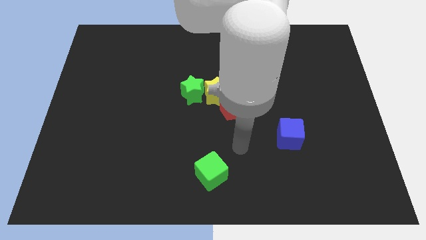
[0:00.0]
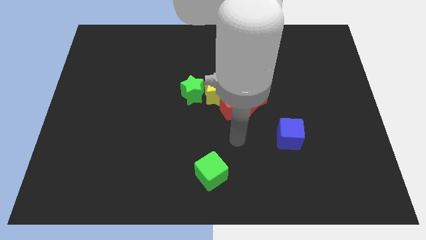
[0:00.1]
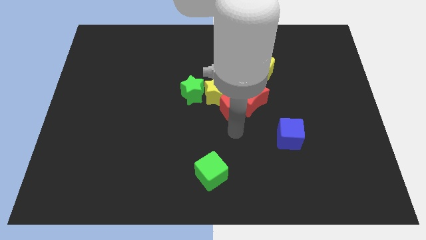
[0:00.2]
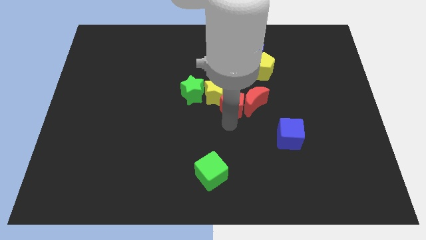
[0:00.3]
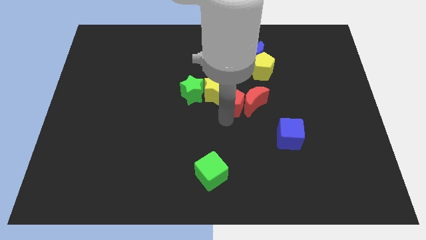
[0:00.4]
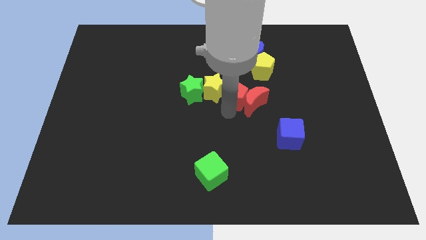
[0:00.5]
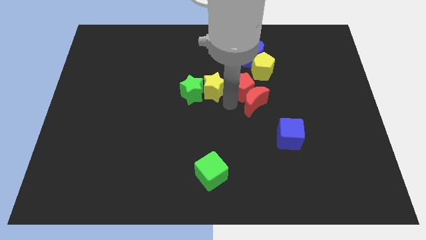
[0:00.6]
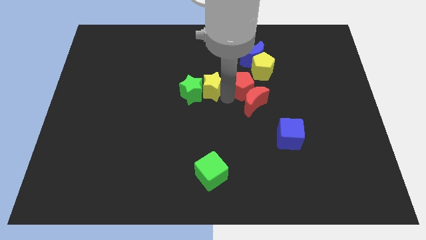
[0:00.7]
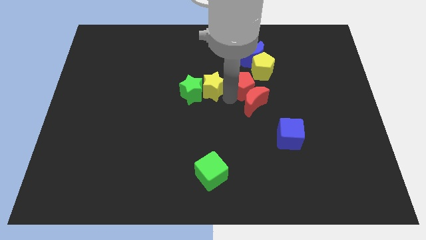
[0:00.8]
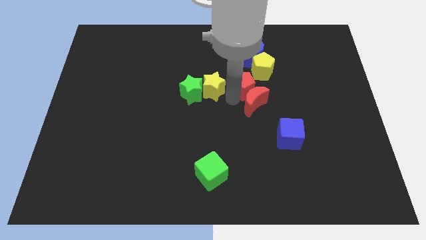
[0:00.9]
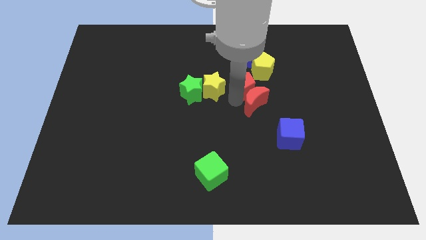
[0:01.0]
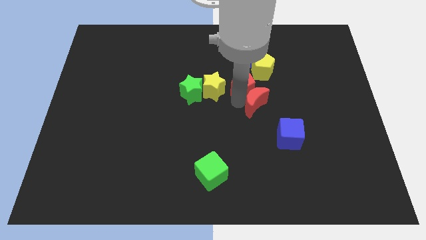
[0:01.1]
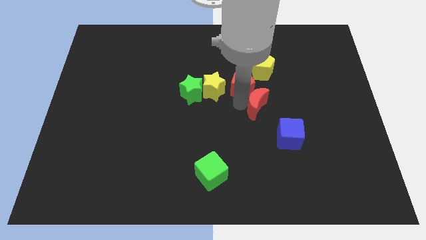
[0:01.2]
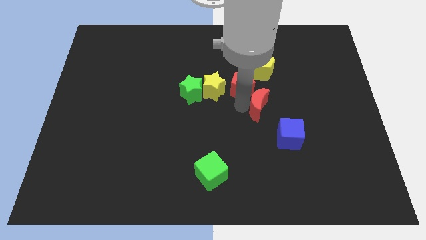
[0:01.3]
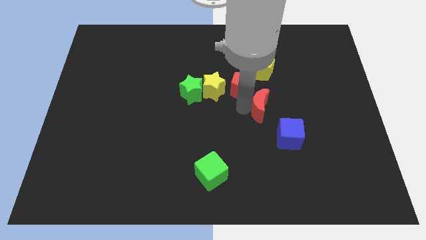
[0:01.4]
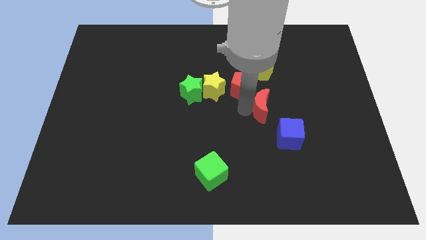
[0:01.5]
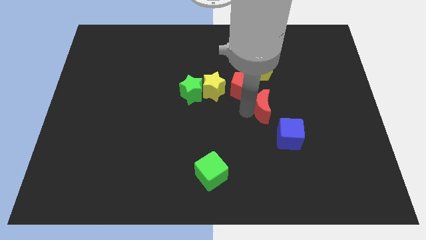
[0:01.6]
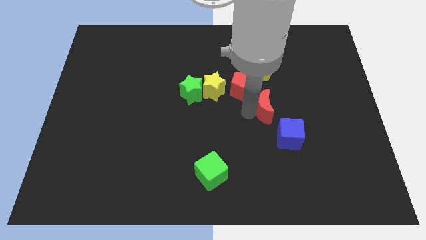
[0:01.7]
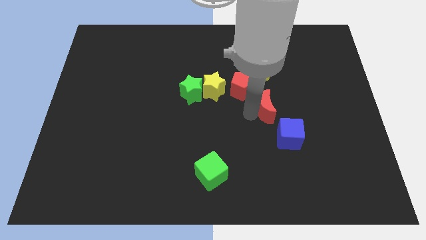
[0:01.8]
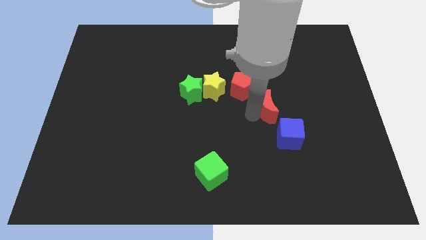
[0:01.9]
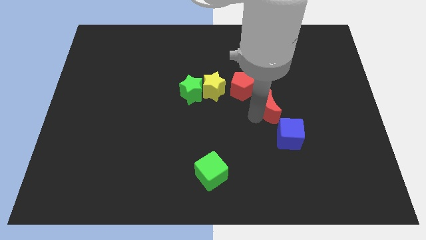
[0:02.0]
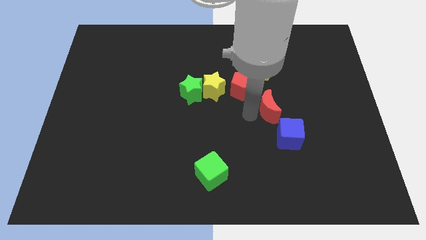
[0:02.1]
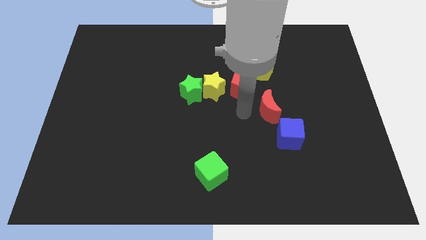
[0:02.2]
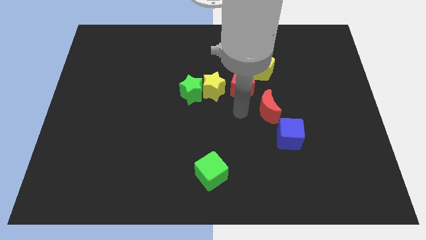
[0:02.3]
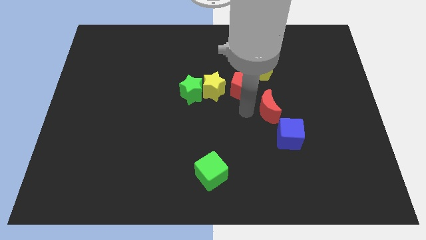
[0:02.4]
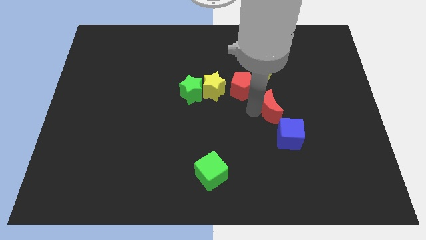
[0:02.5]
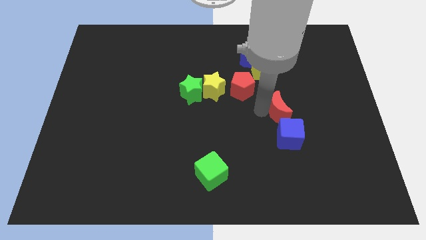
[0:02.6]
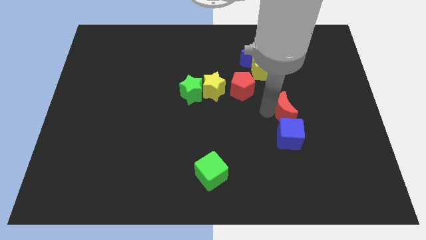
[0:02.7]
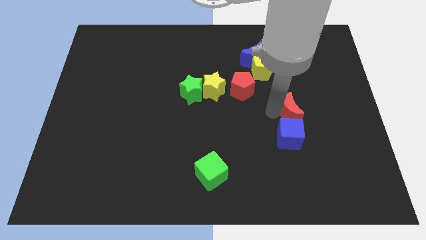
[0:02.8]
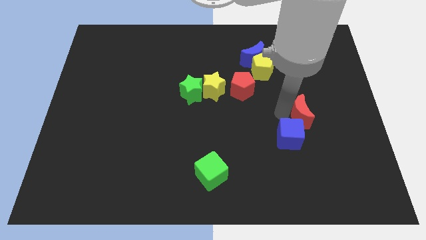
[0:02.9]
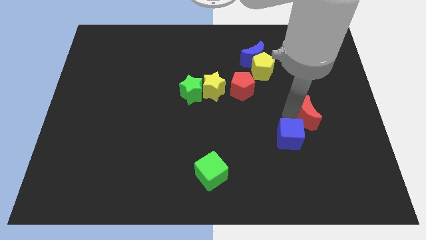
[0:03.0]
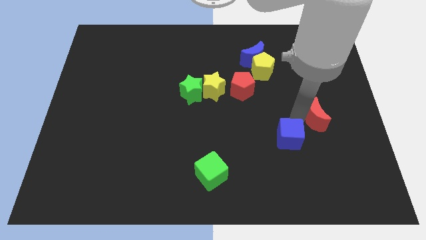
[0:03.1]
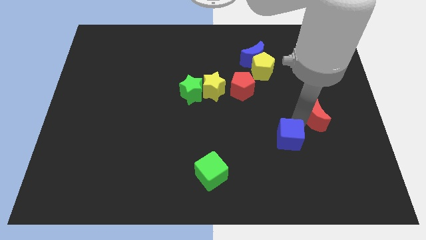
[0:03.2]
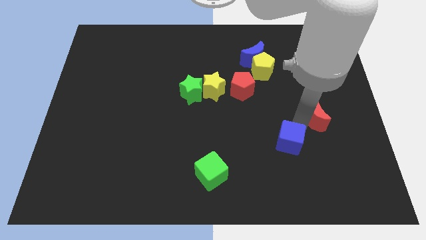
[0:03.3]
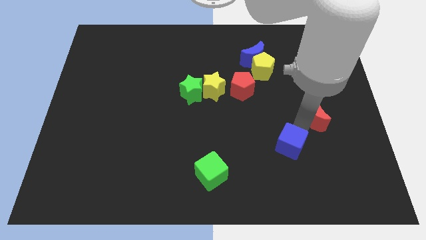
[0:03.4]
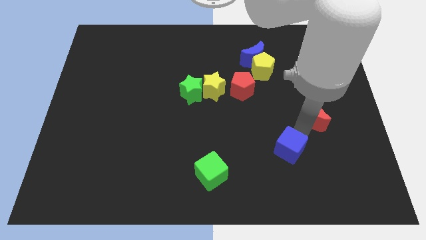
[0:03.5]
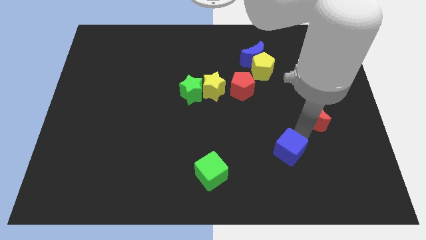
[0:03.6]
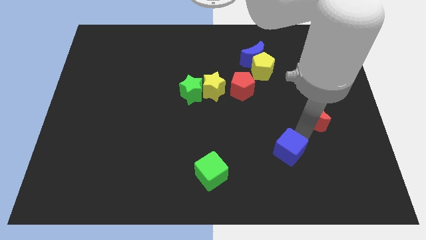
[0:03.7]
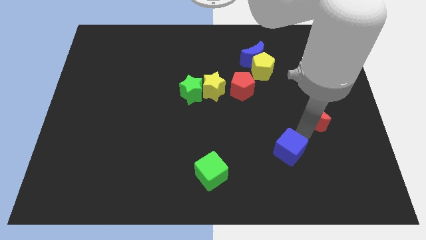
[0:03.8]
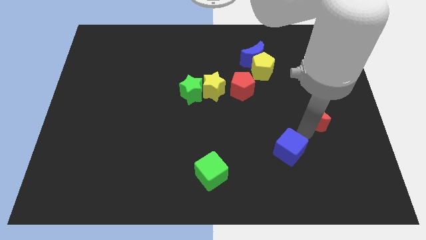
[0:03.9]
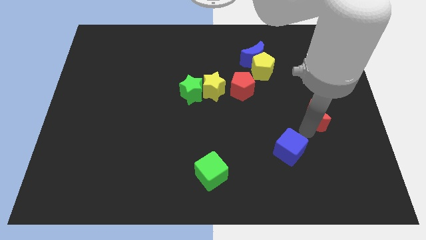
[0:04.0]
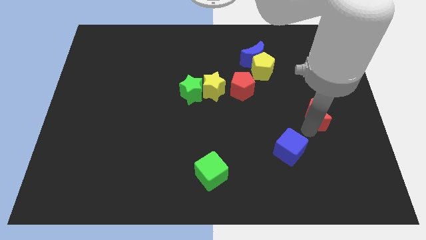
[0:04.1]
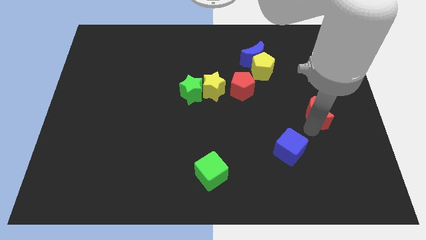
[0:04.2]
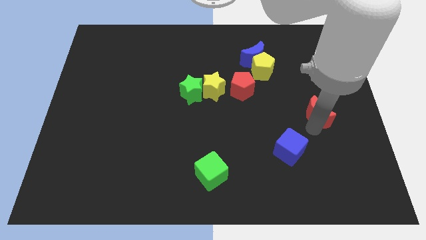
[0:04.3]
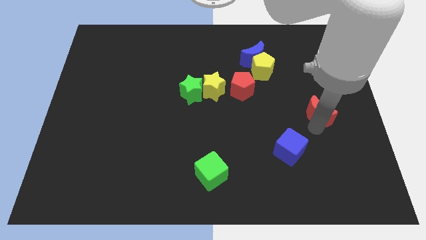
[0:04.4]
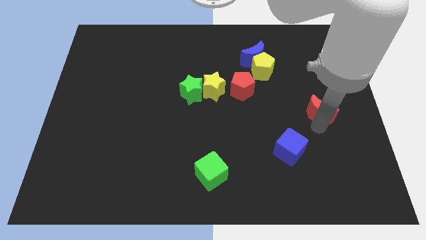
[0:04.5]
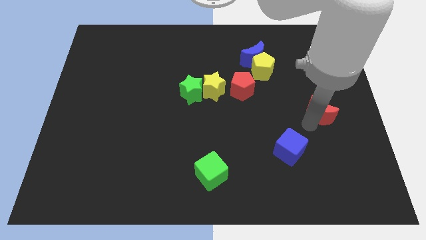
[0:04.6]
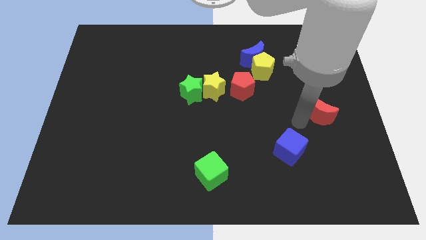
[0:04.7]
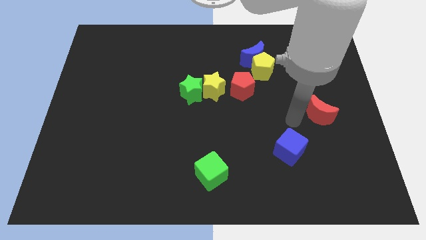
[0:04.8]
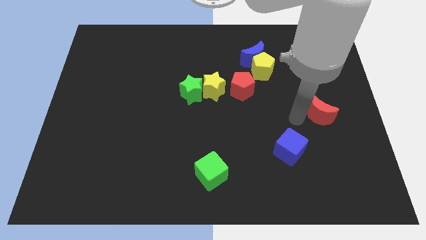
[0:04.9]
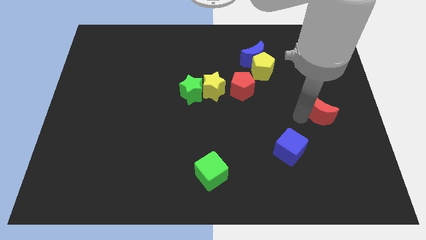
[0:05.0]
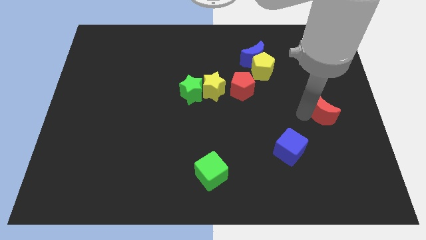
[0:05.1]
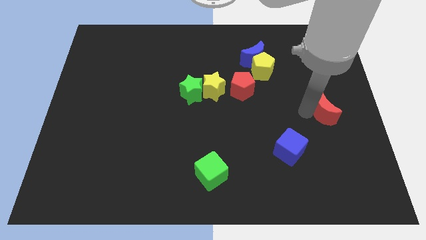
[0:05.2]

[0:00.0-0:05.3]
put the red moon to the right side

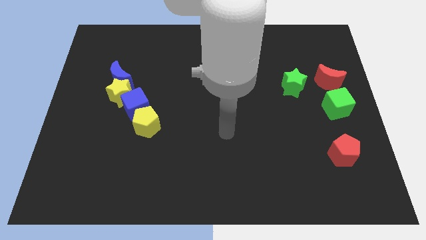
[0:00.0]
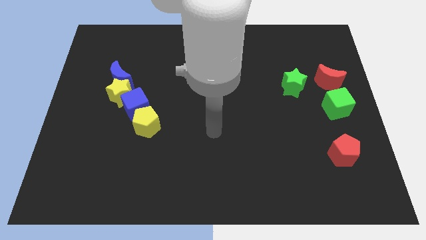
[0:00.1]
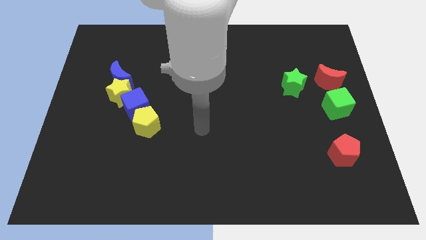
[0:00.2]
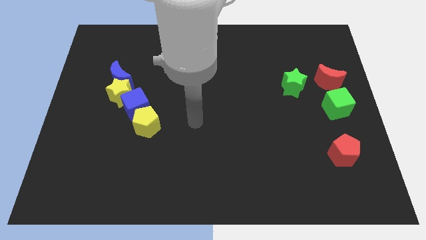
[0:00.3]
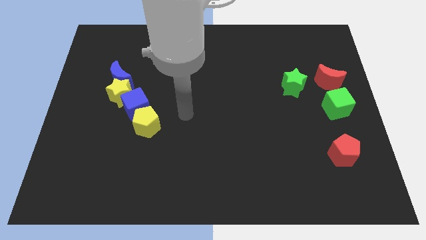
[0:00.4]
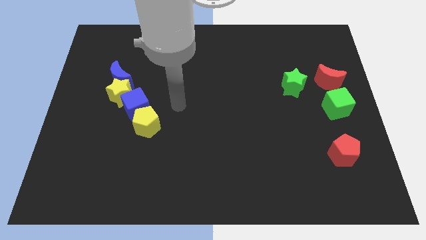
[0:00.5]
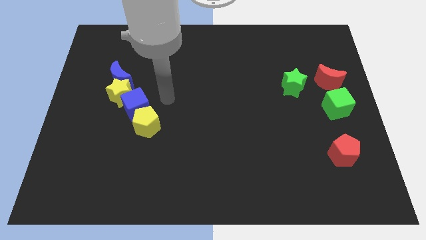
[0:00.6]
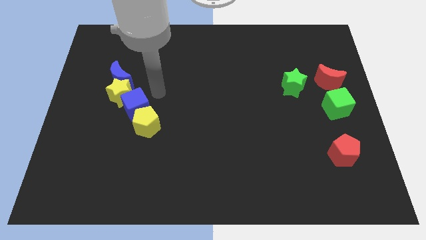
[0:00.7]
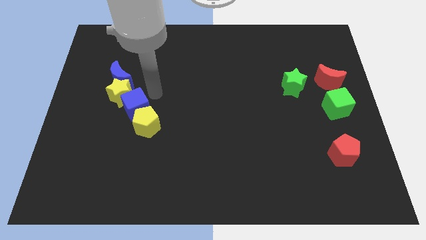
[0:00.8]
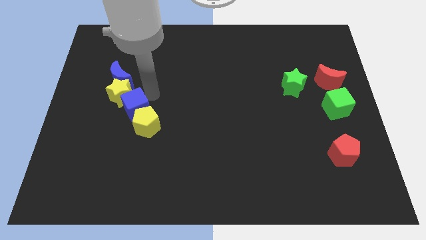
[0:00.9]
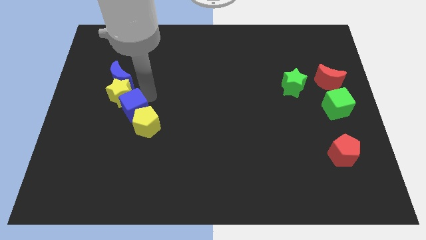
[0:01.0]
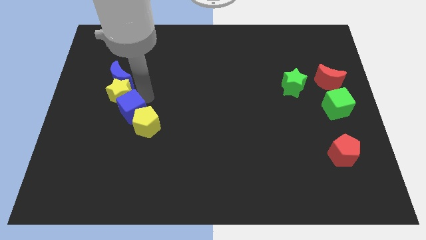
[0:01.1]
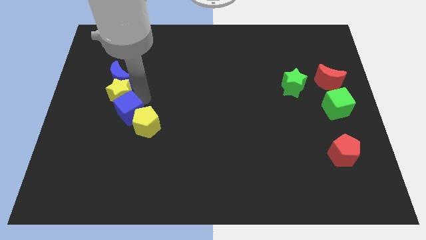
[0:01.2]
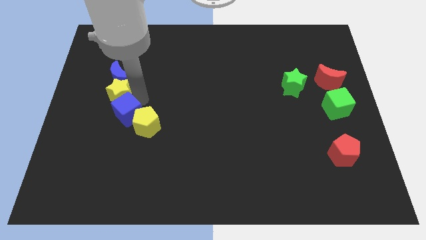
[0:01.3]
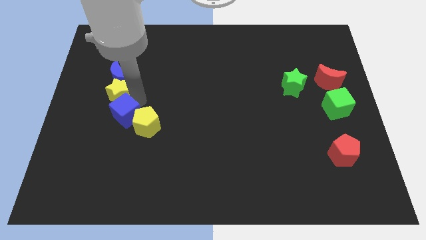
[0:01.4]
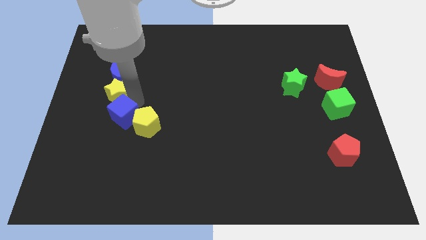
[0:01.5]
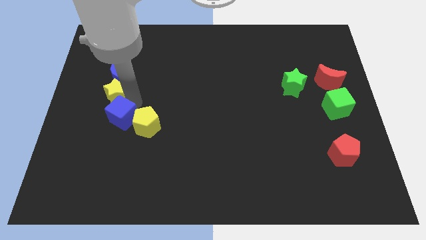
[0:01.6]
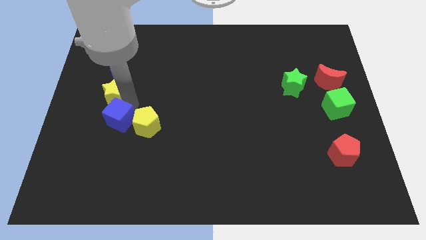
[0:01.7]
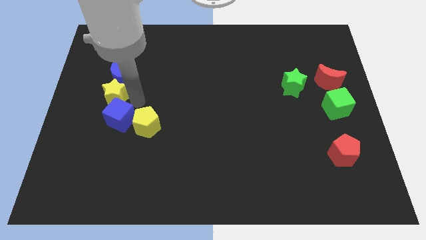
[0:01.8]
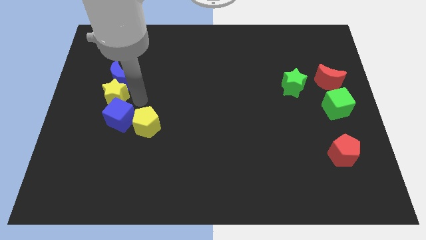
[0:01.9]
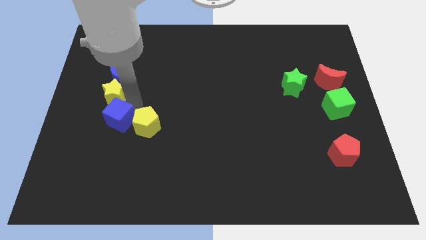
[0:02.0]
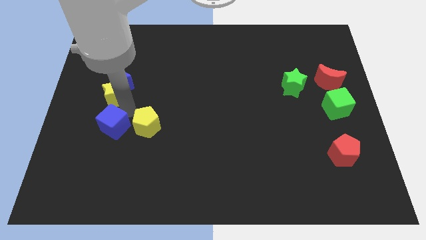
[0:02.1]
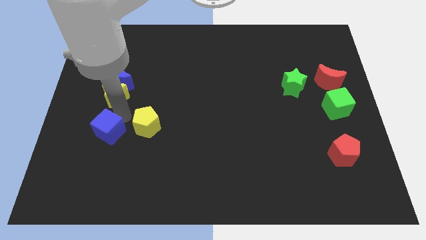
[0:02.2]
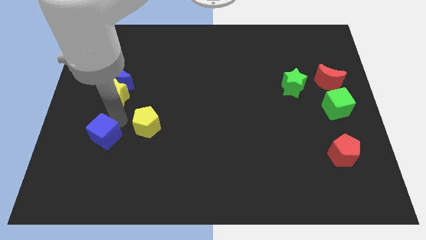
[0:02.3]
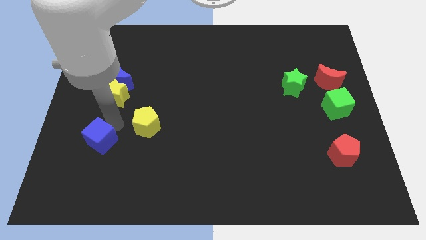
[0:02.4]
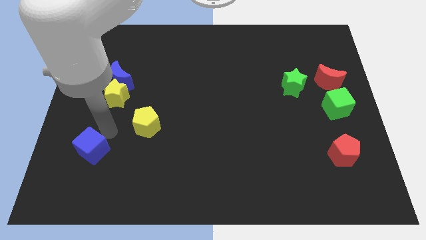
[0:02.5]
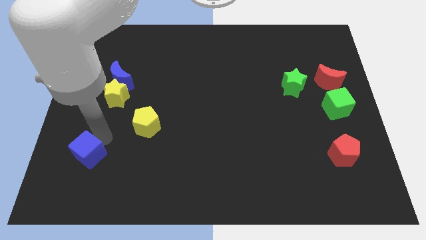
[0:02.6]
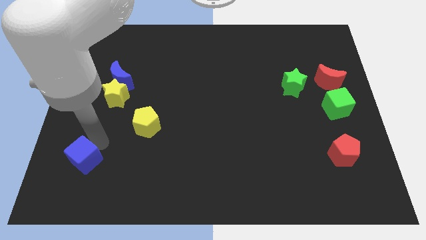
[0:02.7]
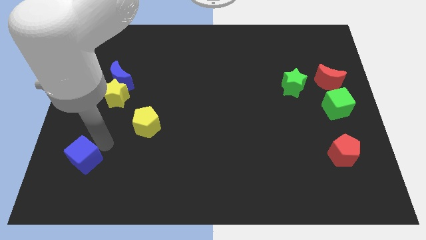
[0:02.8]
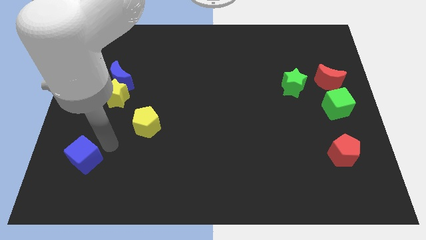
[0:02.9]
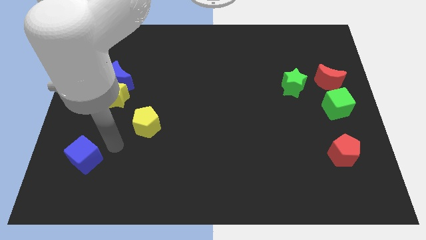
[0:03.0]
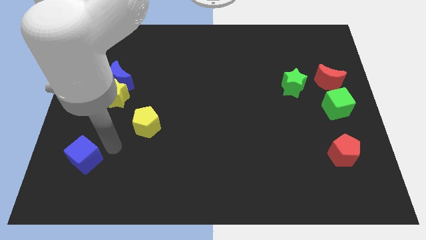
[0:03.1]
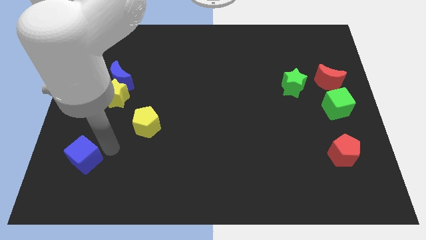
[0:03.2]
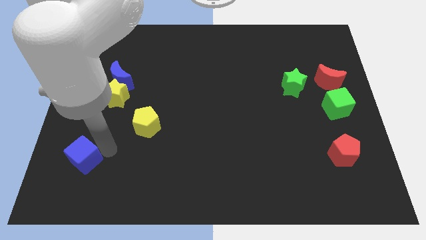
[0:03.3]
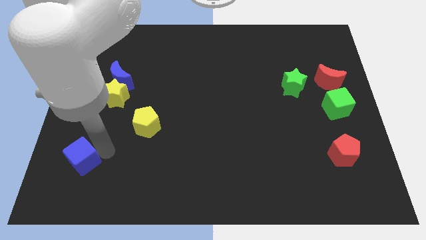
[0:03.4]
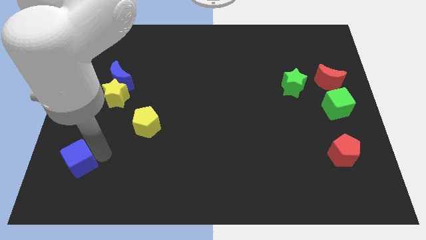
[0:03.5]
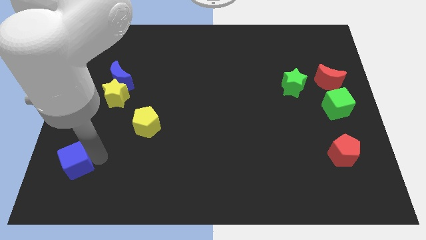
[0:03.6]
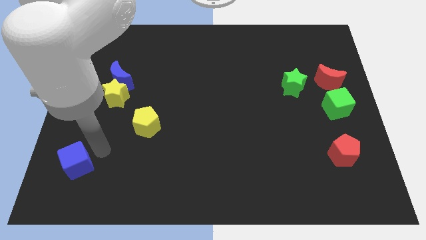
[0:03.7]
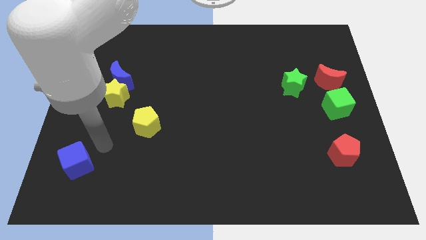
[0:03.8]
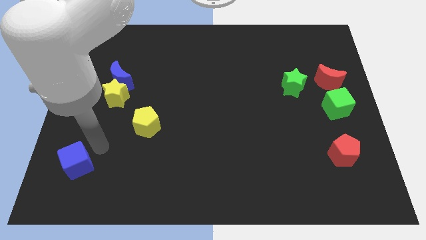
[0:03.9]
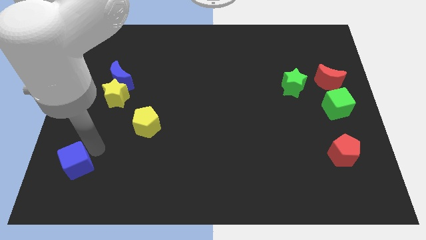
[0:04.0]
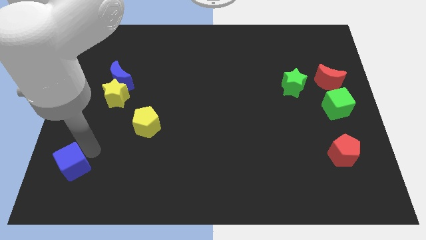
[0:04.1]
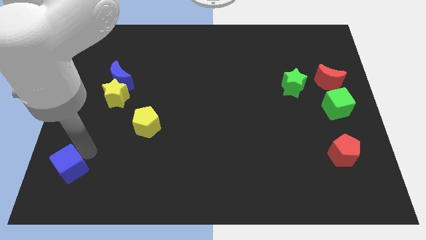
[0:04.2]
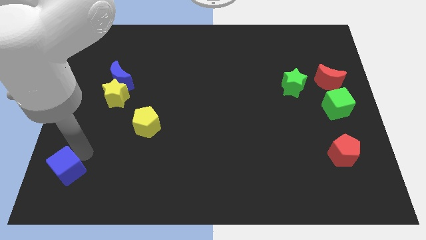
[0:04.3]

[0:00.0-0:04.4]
push the blue cube to the bottom left of the board
